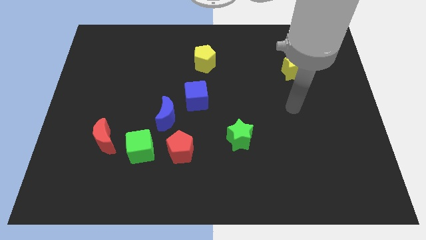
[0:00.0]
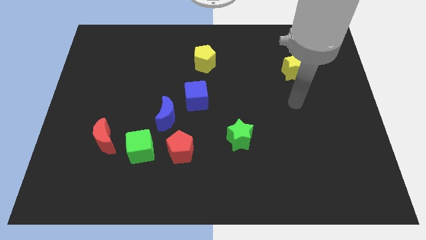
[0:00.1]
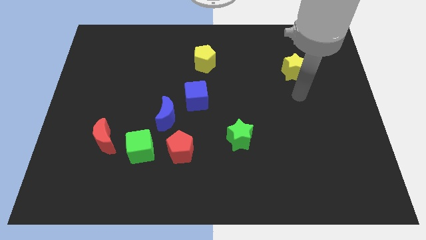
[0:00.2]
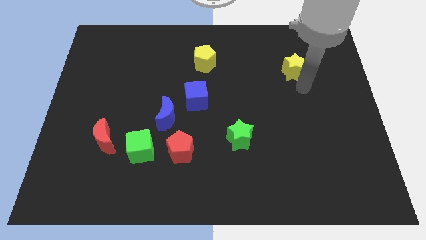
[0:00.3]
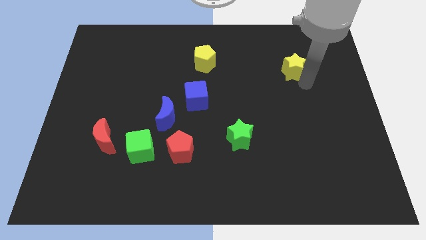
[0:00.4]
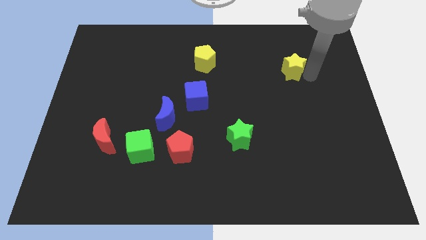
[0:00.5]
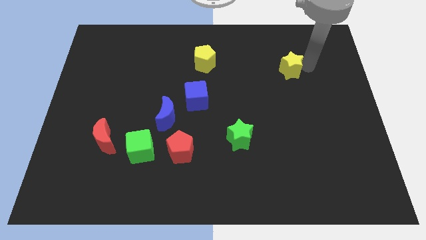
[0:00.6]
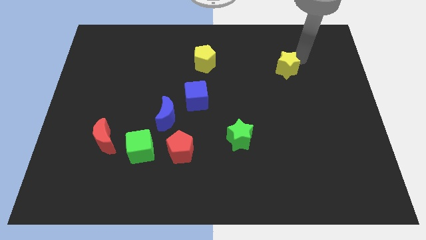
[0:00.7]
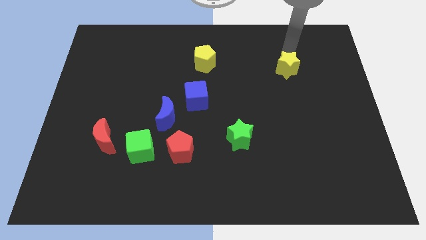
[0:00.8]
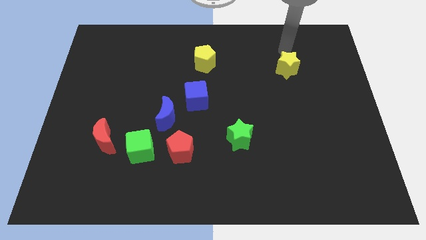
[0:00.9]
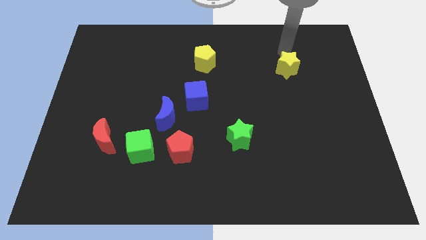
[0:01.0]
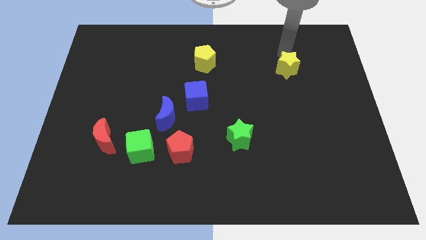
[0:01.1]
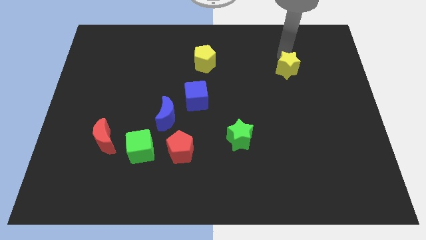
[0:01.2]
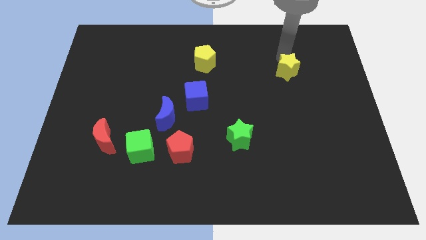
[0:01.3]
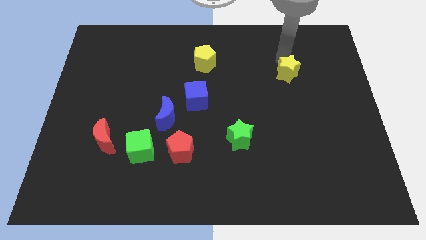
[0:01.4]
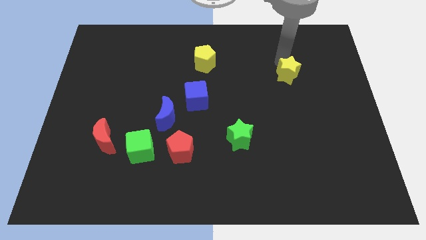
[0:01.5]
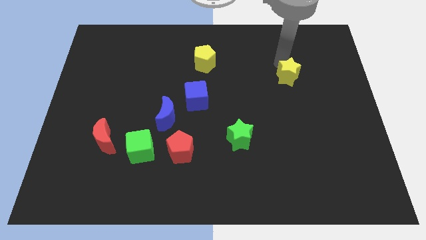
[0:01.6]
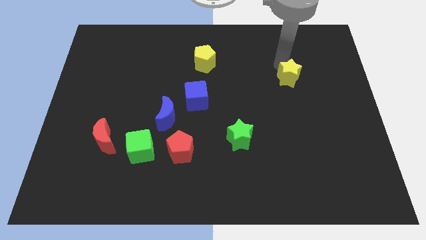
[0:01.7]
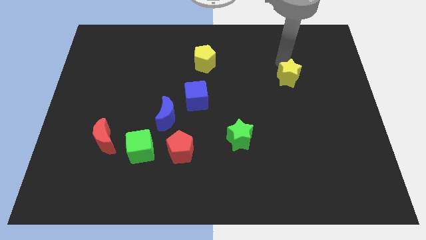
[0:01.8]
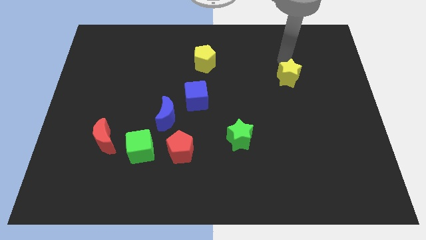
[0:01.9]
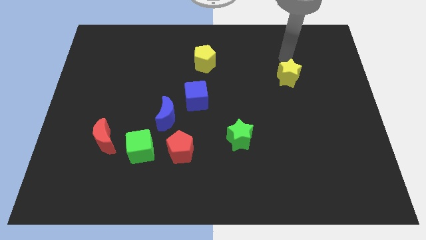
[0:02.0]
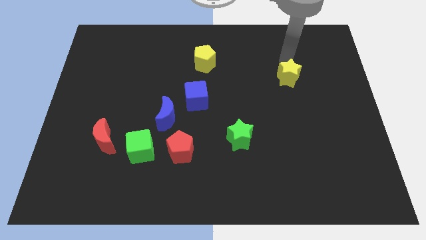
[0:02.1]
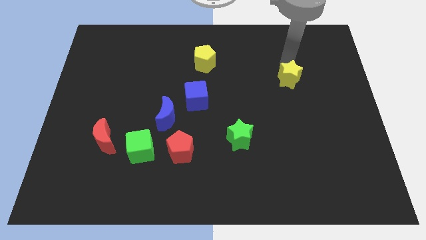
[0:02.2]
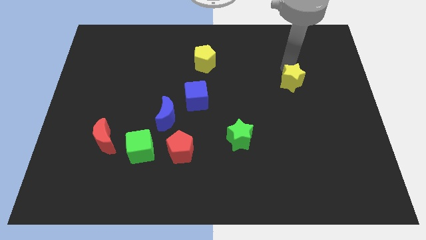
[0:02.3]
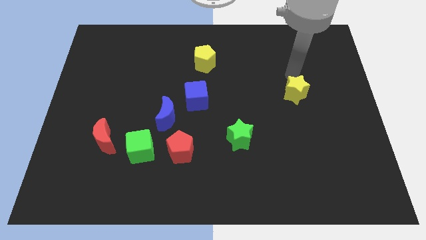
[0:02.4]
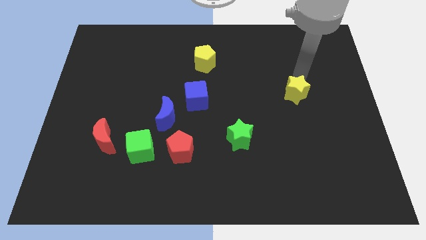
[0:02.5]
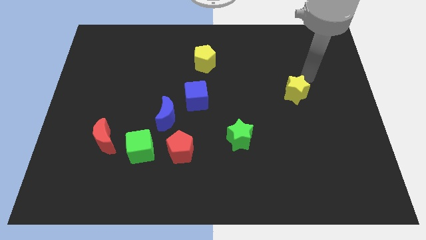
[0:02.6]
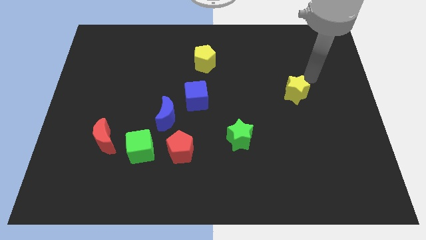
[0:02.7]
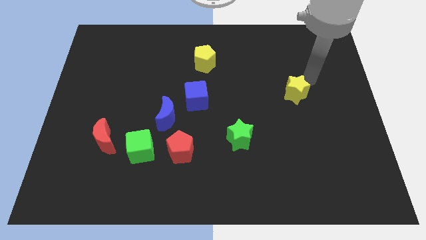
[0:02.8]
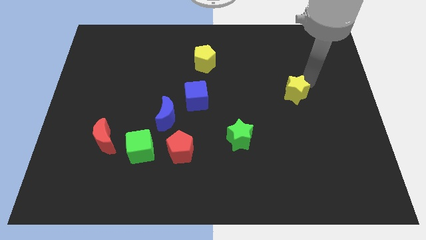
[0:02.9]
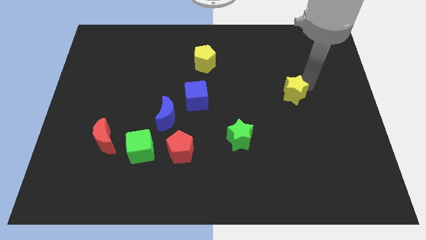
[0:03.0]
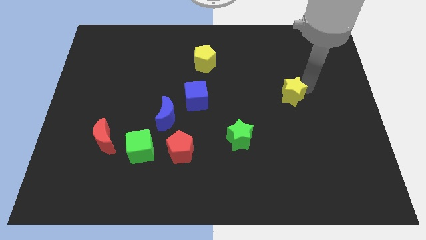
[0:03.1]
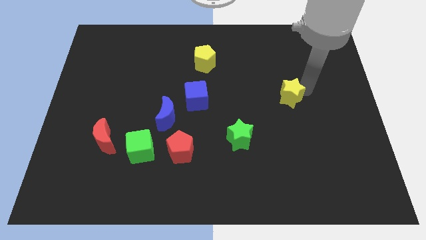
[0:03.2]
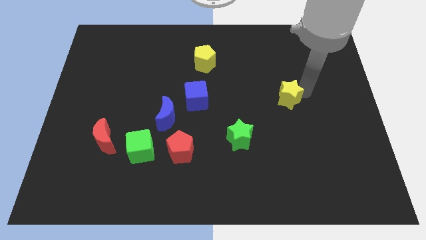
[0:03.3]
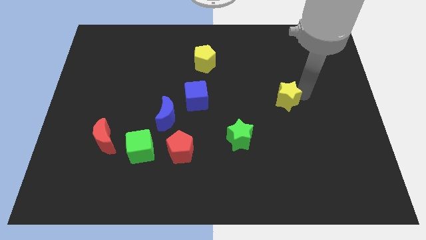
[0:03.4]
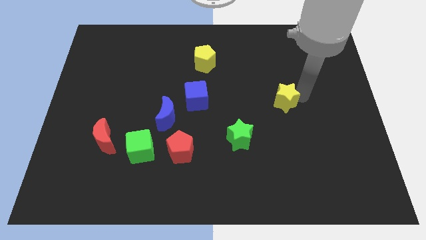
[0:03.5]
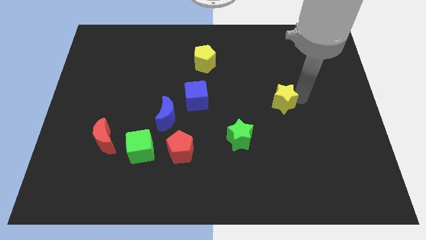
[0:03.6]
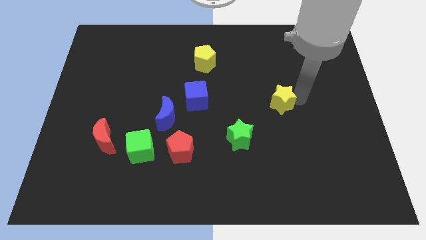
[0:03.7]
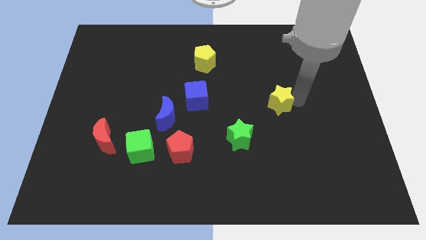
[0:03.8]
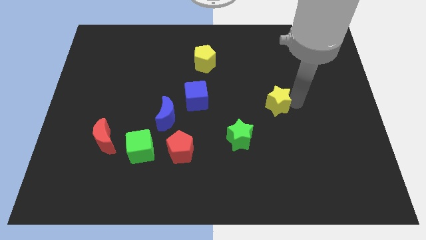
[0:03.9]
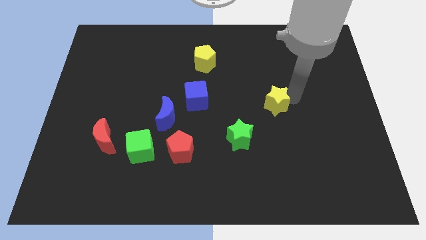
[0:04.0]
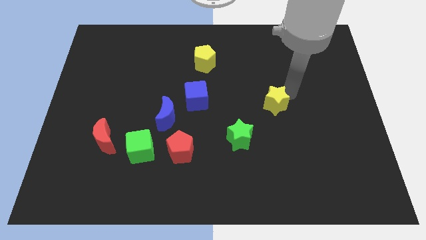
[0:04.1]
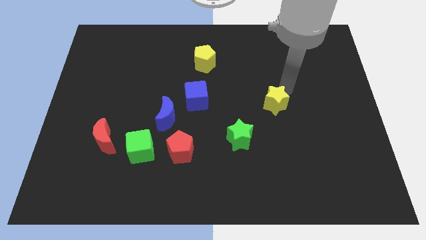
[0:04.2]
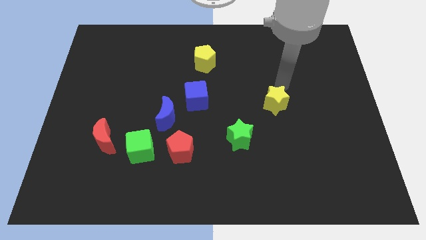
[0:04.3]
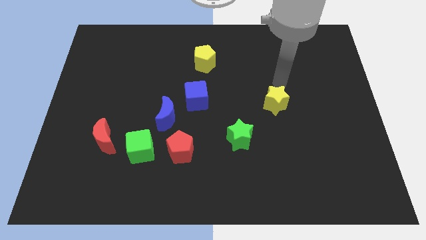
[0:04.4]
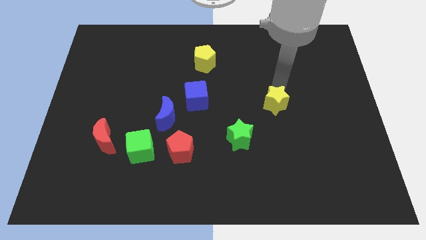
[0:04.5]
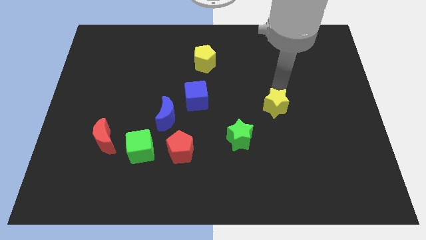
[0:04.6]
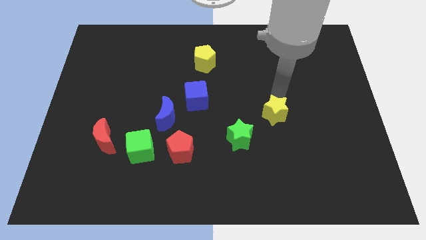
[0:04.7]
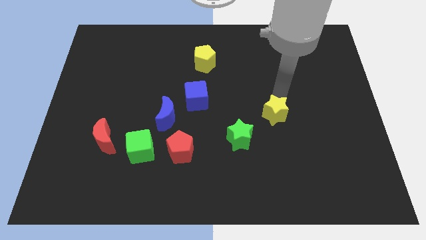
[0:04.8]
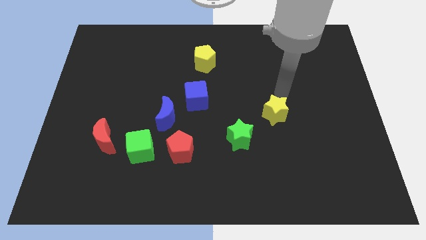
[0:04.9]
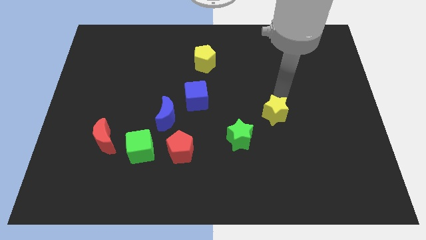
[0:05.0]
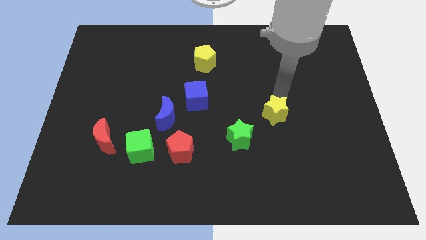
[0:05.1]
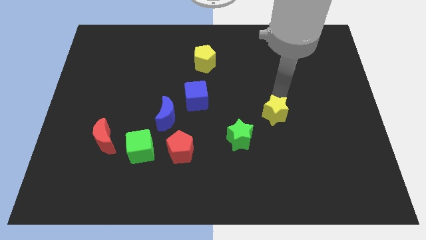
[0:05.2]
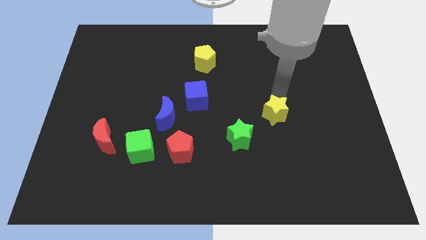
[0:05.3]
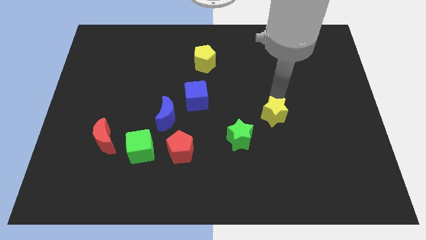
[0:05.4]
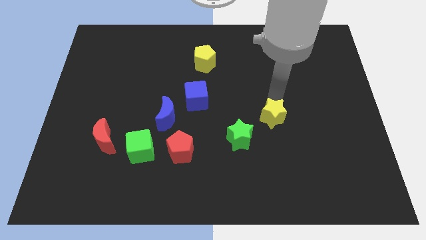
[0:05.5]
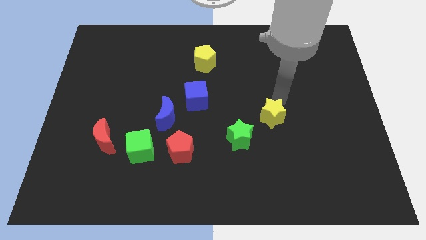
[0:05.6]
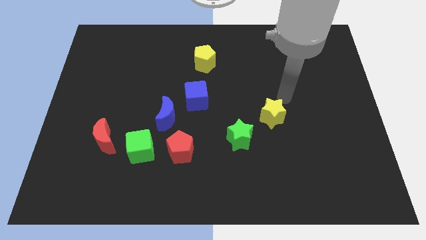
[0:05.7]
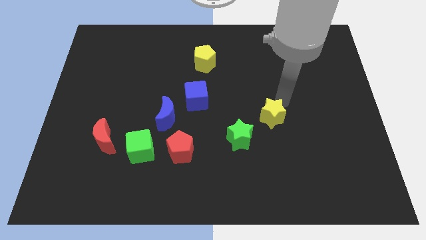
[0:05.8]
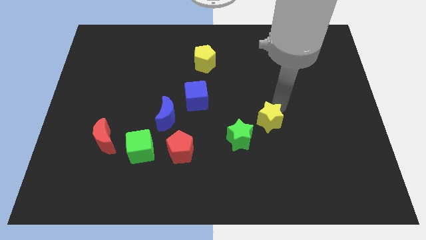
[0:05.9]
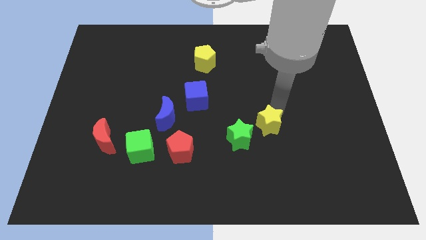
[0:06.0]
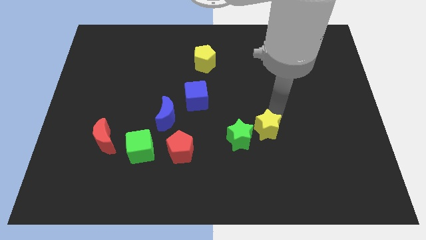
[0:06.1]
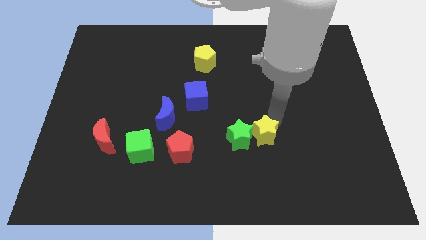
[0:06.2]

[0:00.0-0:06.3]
push the yellow star next to the green star

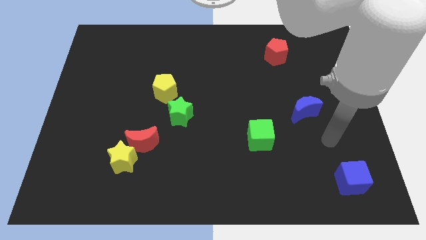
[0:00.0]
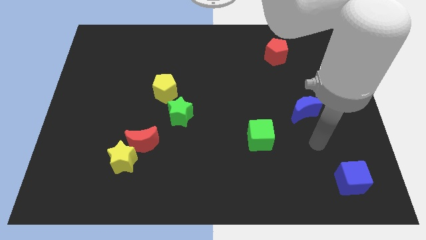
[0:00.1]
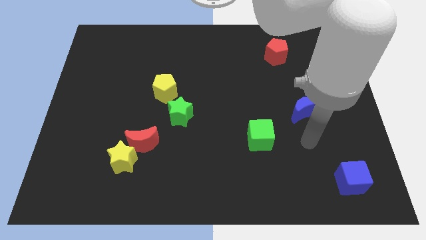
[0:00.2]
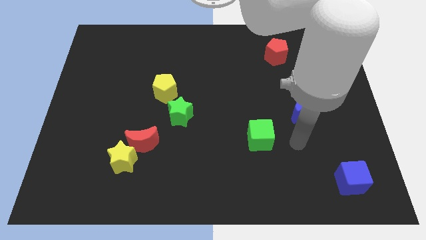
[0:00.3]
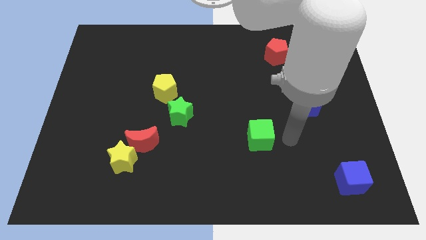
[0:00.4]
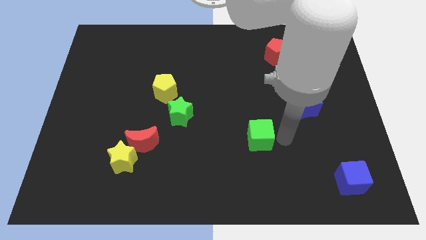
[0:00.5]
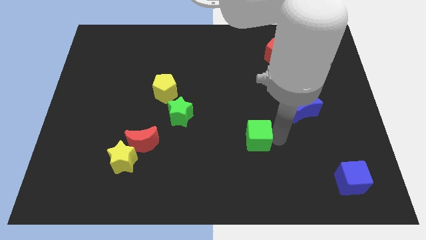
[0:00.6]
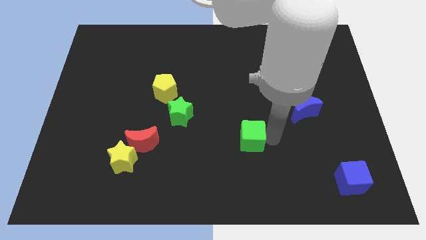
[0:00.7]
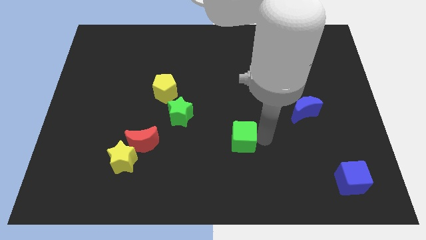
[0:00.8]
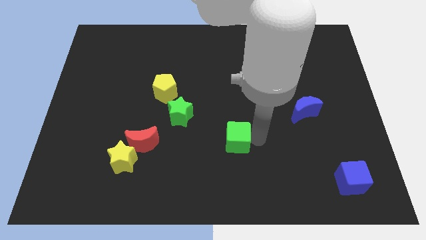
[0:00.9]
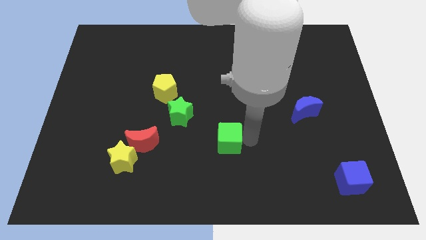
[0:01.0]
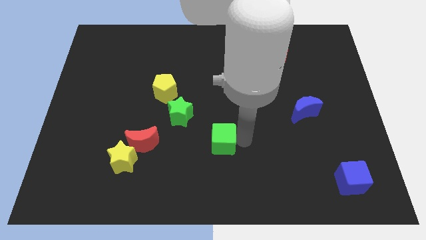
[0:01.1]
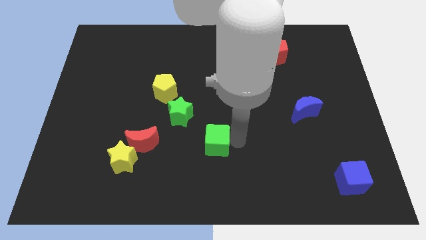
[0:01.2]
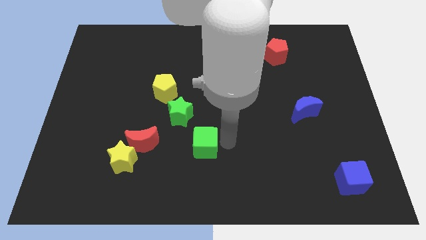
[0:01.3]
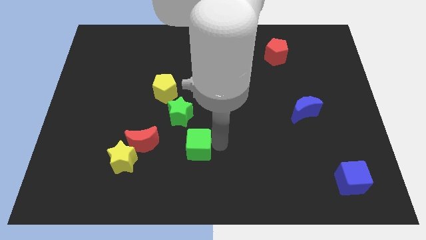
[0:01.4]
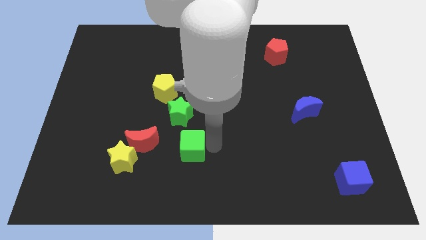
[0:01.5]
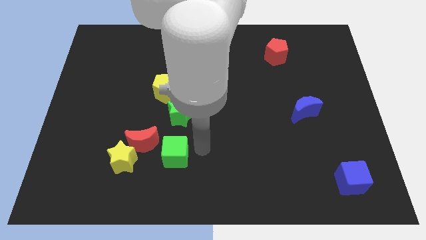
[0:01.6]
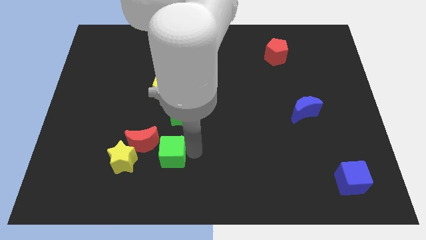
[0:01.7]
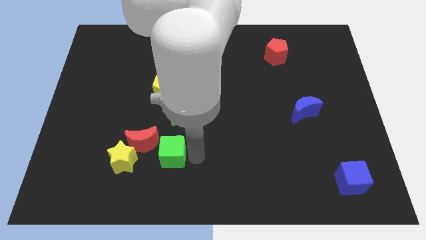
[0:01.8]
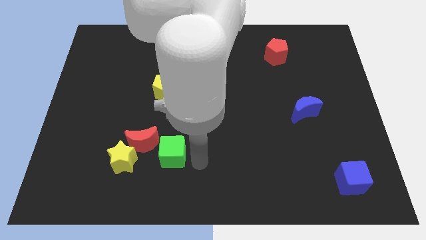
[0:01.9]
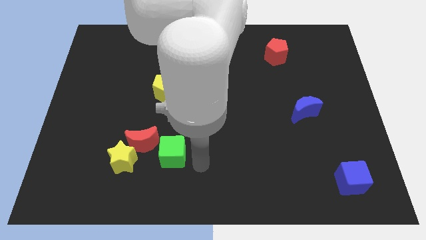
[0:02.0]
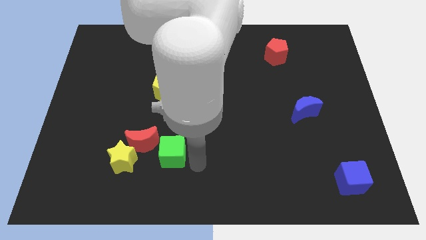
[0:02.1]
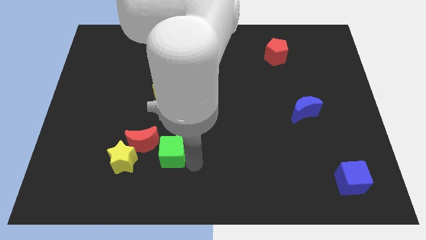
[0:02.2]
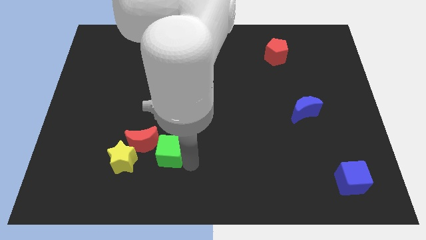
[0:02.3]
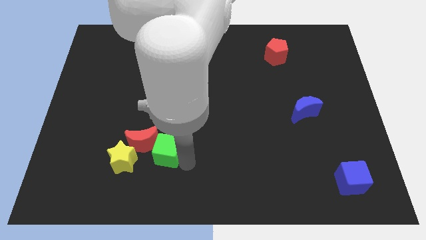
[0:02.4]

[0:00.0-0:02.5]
put the green cube close to the red moon
